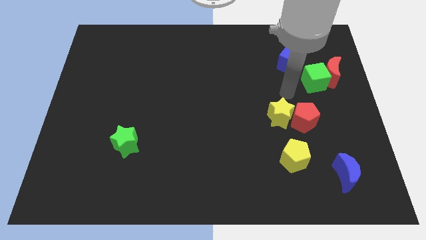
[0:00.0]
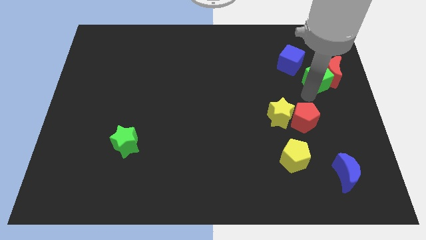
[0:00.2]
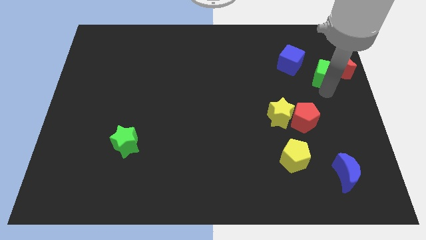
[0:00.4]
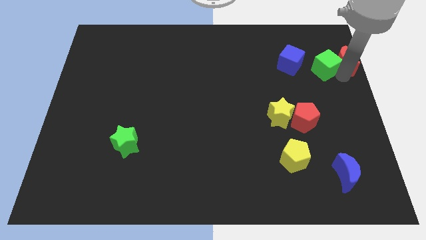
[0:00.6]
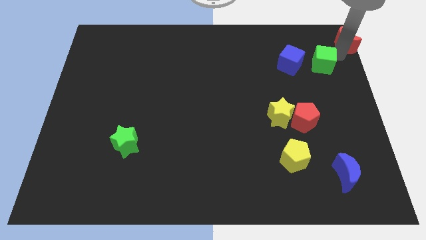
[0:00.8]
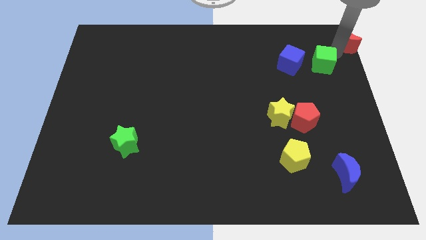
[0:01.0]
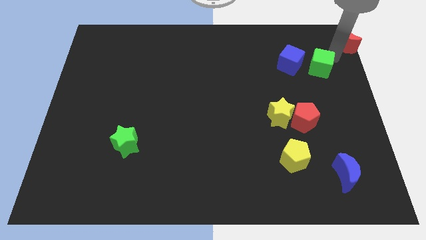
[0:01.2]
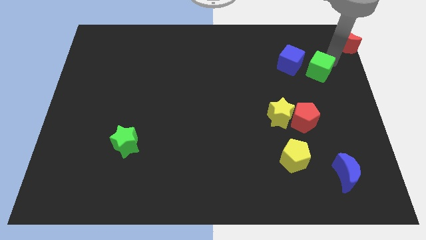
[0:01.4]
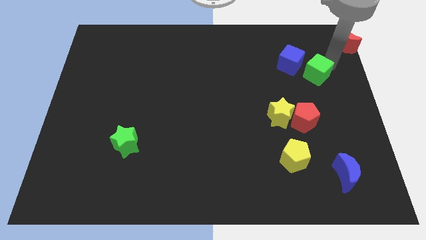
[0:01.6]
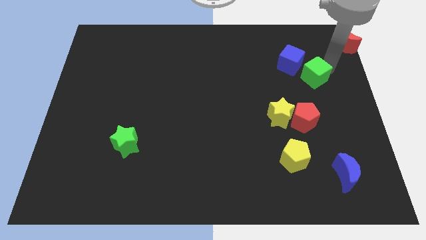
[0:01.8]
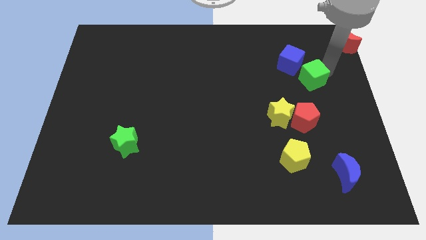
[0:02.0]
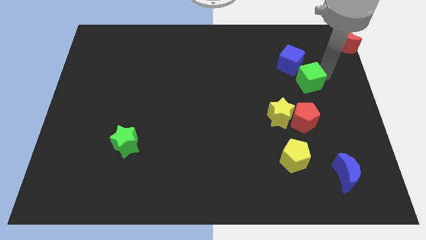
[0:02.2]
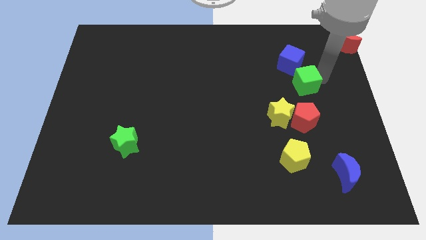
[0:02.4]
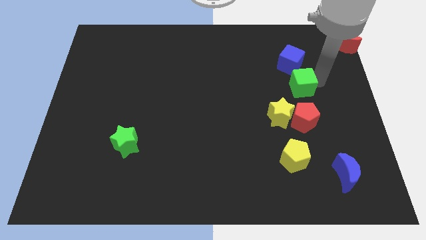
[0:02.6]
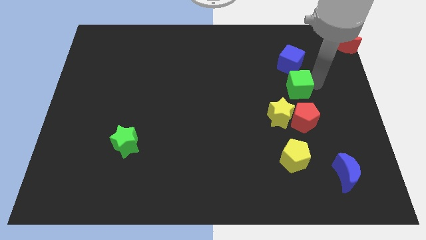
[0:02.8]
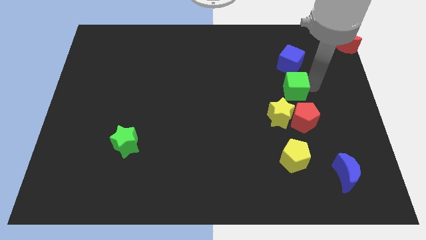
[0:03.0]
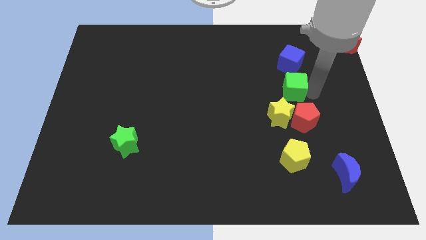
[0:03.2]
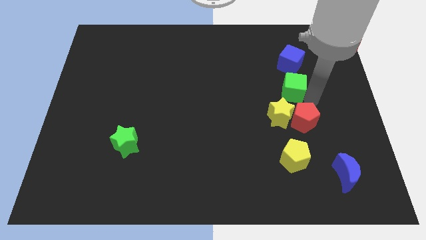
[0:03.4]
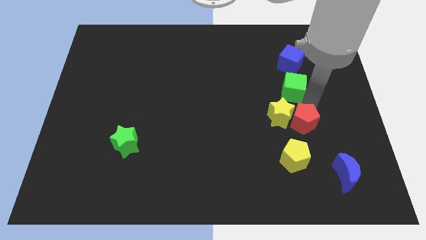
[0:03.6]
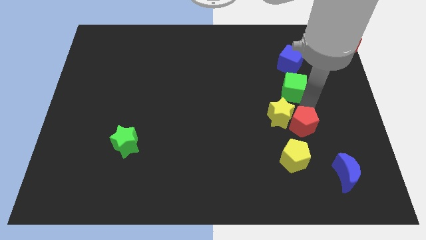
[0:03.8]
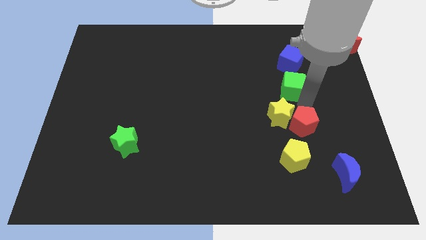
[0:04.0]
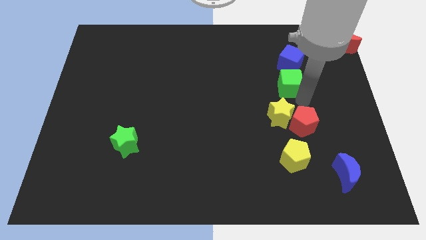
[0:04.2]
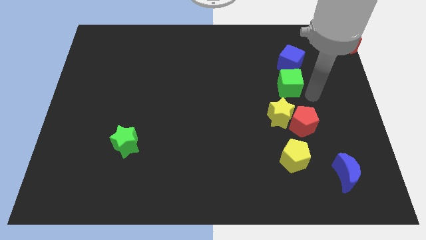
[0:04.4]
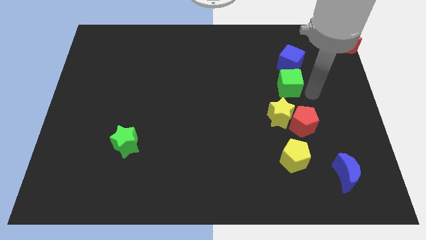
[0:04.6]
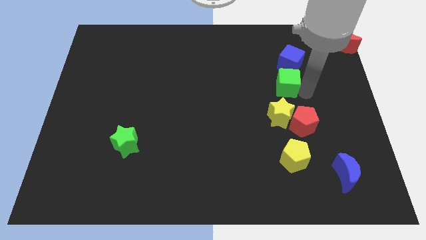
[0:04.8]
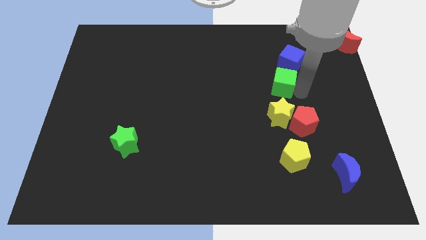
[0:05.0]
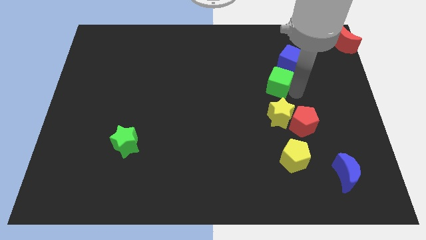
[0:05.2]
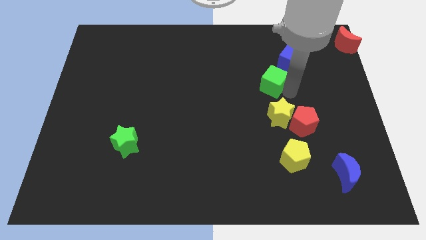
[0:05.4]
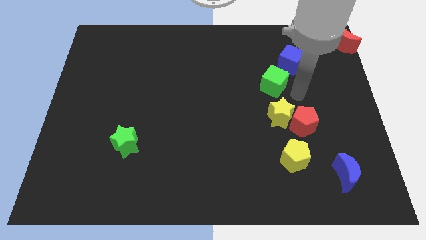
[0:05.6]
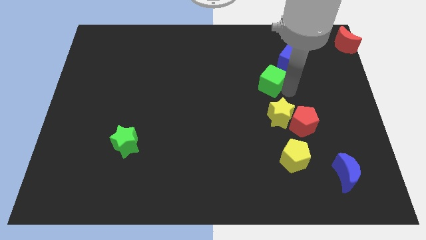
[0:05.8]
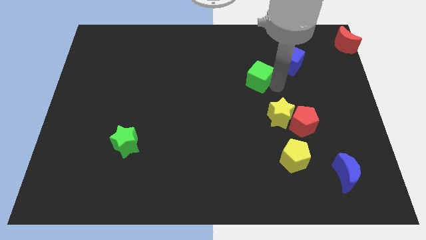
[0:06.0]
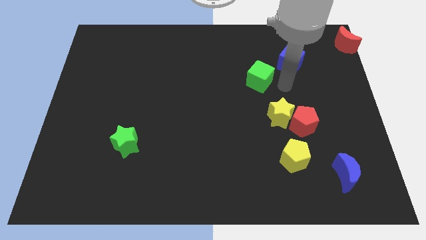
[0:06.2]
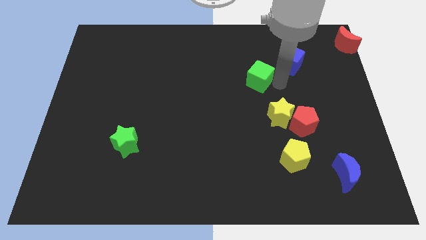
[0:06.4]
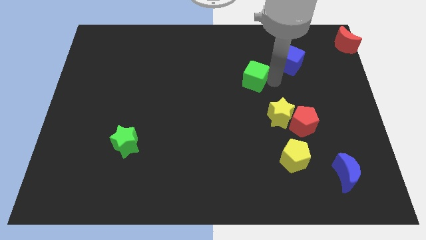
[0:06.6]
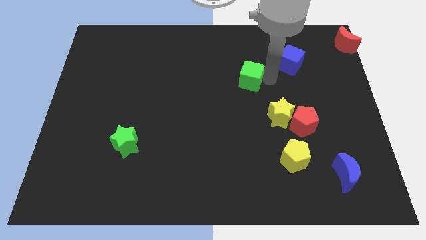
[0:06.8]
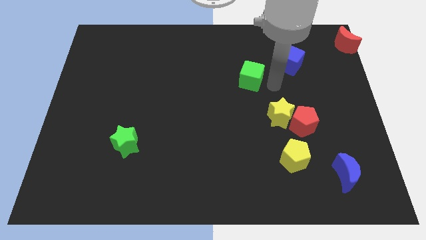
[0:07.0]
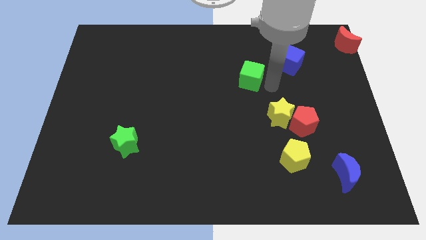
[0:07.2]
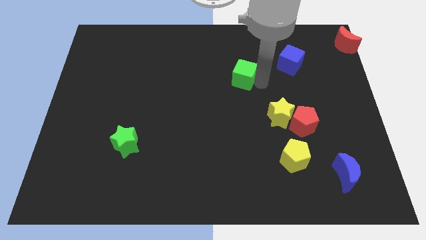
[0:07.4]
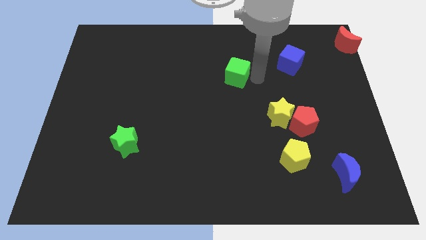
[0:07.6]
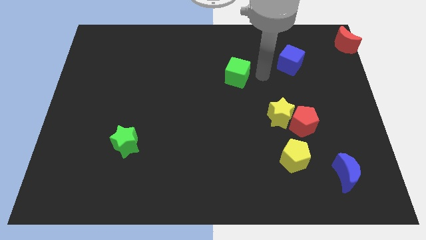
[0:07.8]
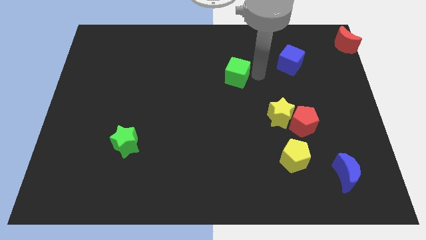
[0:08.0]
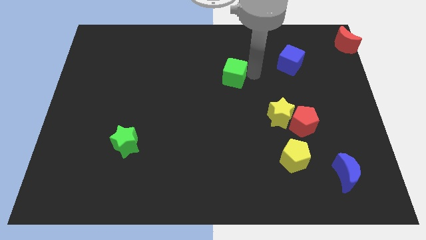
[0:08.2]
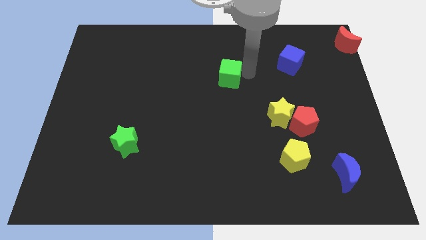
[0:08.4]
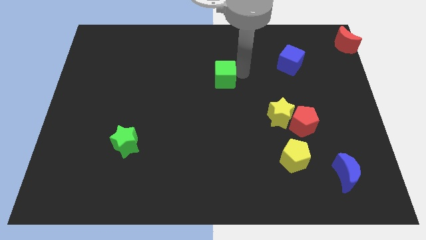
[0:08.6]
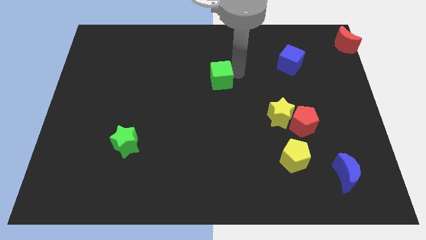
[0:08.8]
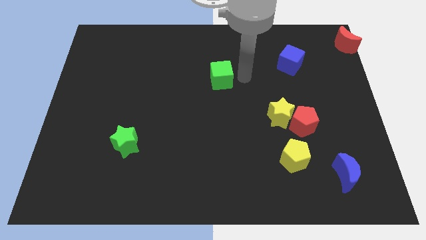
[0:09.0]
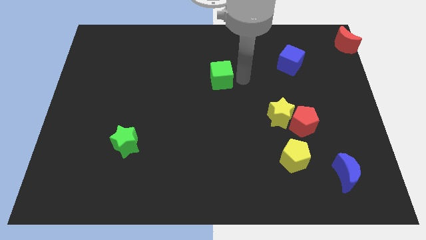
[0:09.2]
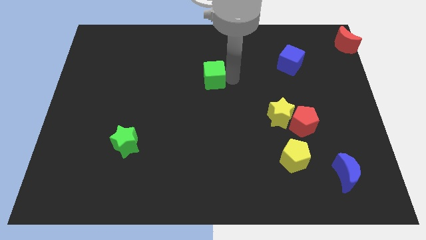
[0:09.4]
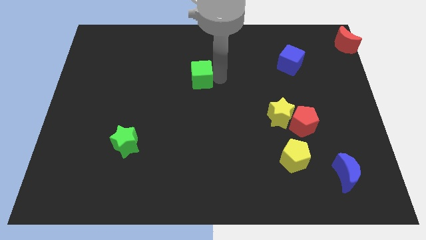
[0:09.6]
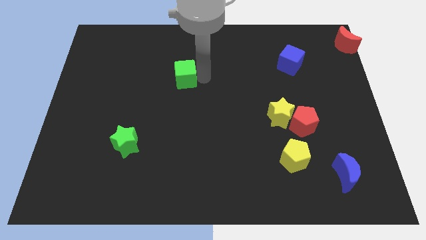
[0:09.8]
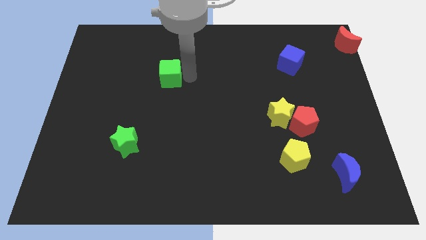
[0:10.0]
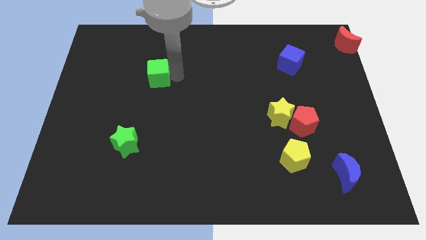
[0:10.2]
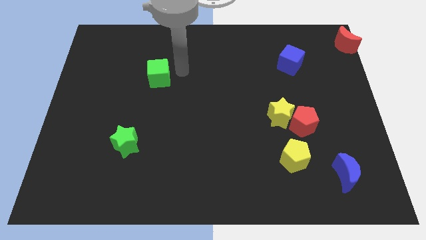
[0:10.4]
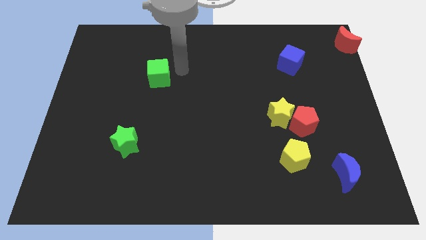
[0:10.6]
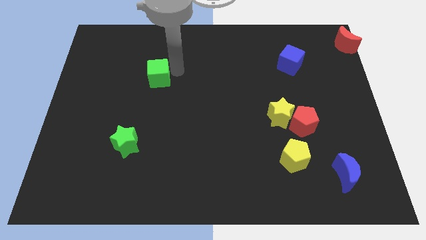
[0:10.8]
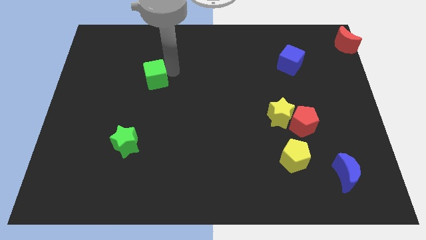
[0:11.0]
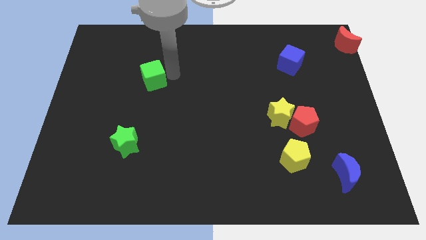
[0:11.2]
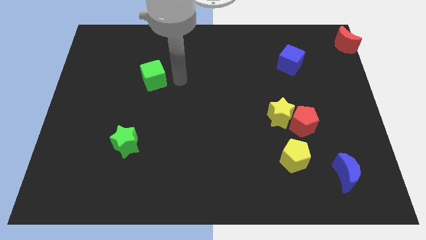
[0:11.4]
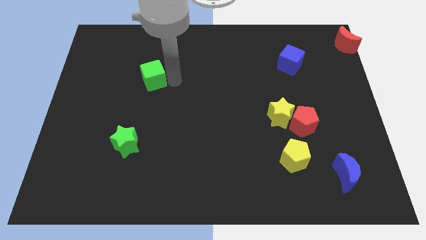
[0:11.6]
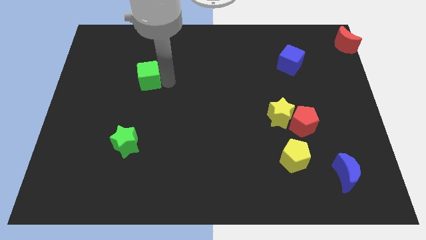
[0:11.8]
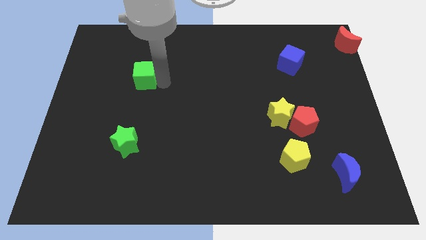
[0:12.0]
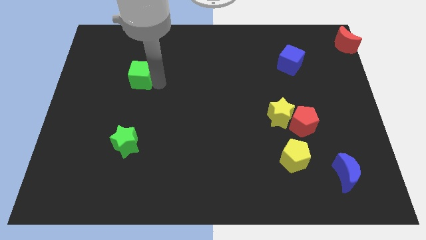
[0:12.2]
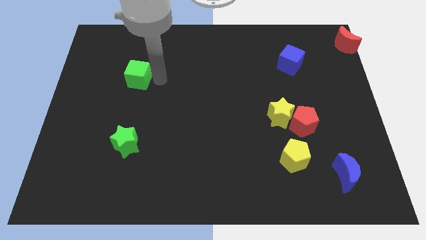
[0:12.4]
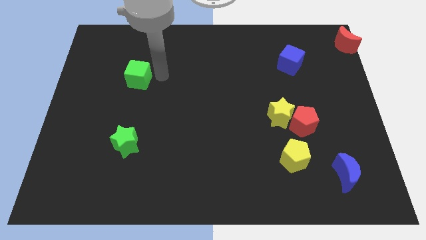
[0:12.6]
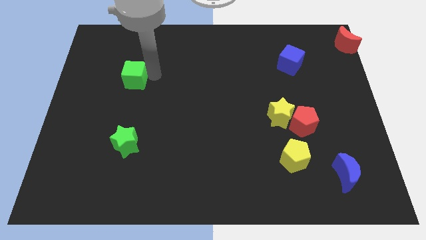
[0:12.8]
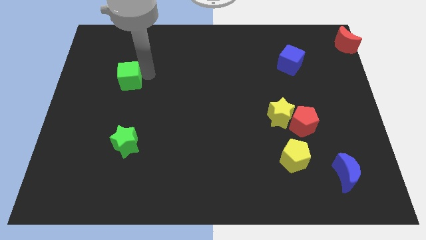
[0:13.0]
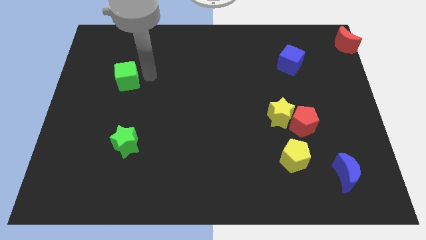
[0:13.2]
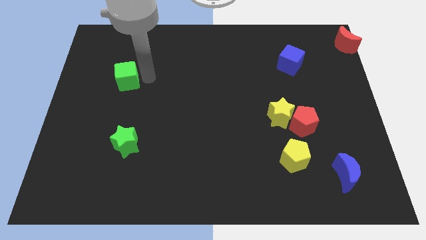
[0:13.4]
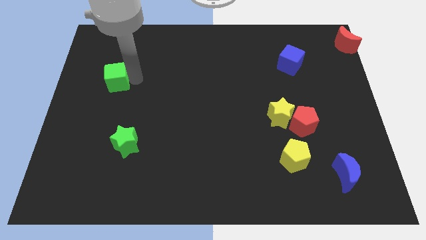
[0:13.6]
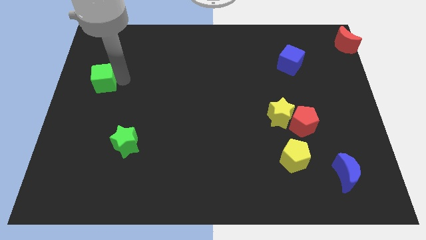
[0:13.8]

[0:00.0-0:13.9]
move the green cube to the left side of the board
